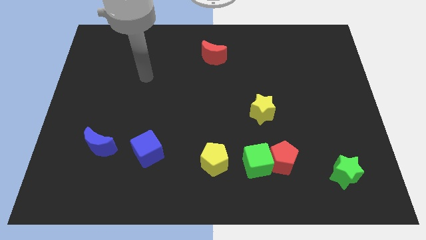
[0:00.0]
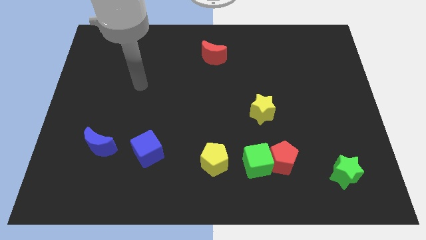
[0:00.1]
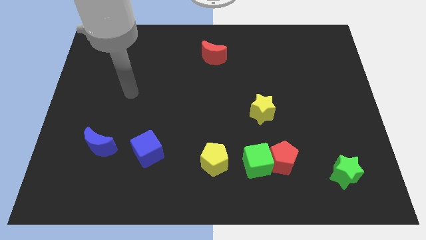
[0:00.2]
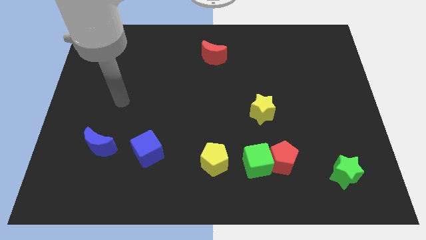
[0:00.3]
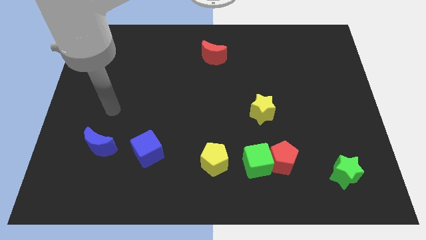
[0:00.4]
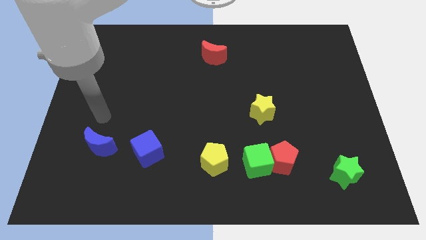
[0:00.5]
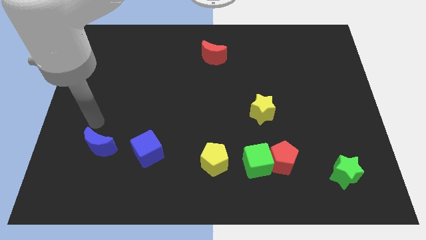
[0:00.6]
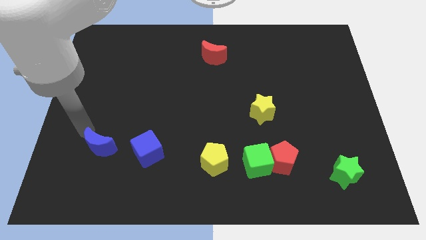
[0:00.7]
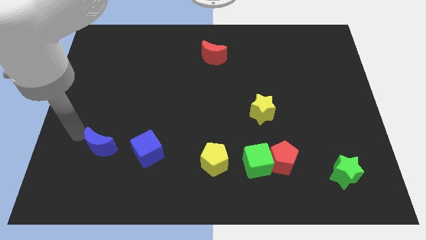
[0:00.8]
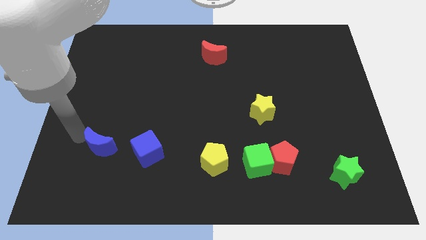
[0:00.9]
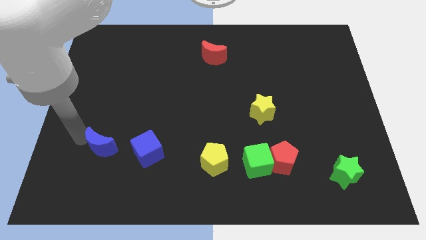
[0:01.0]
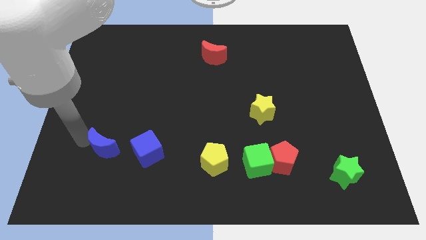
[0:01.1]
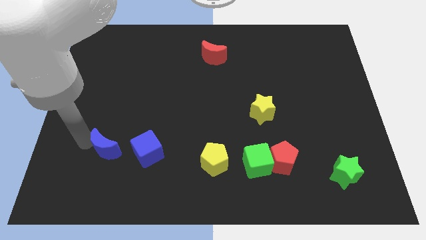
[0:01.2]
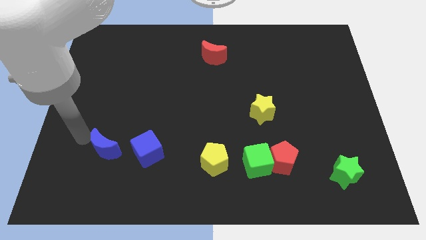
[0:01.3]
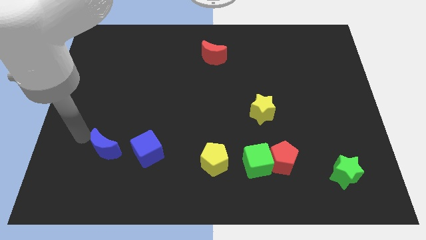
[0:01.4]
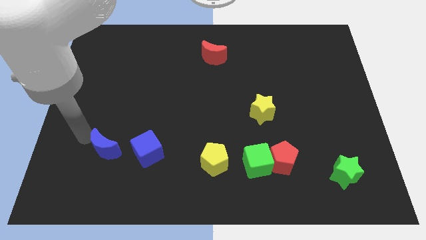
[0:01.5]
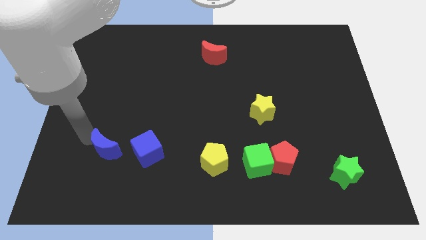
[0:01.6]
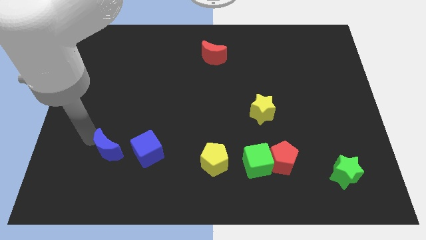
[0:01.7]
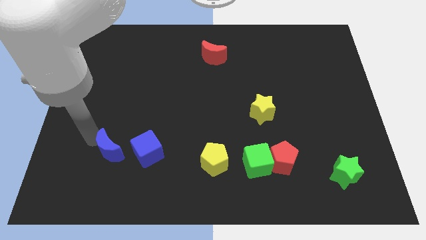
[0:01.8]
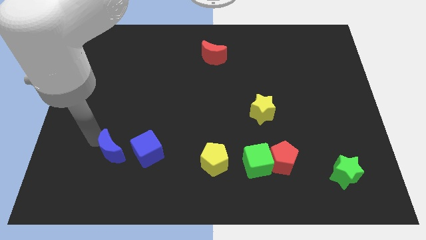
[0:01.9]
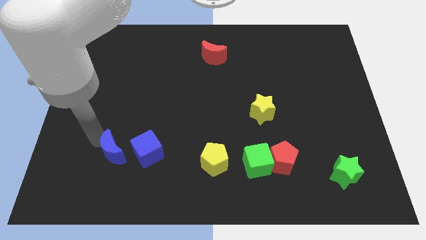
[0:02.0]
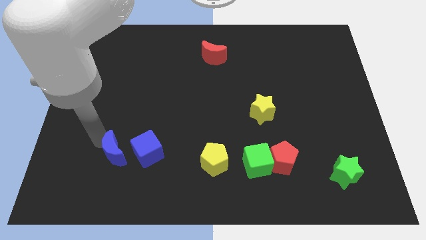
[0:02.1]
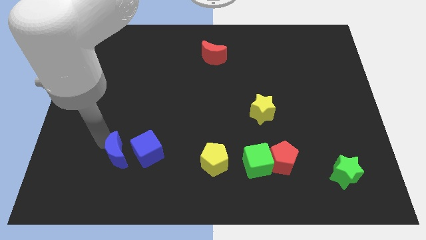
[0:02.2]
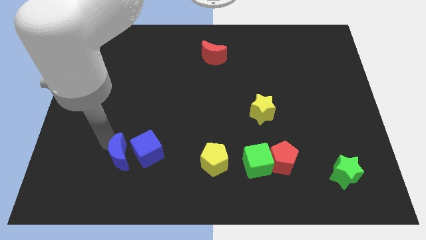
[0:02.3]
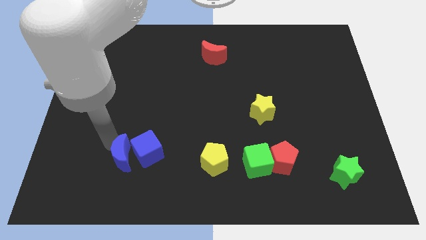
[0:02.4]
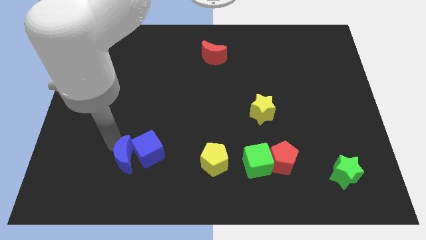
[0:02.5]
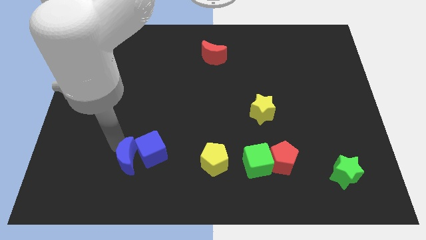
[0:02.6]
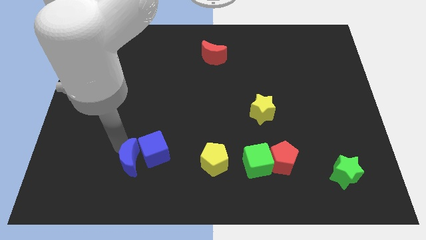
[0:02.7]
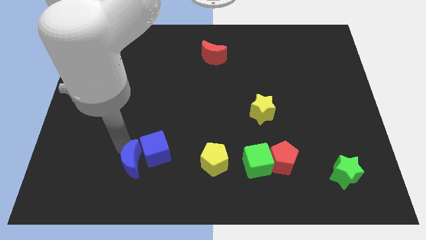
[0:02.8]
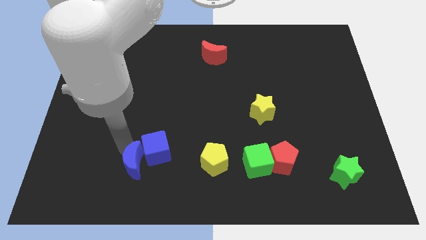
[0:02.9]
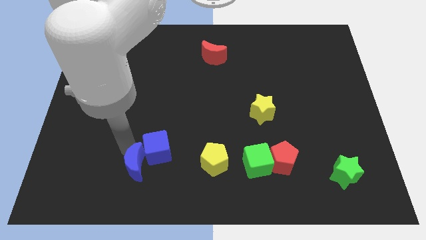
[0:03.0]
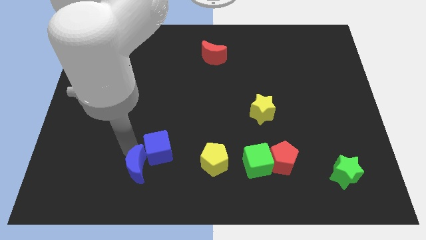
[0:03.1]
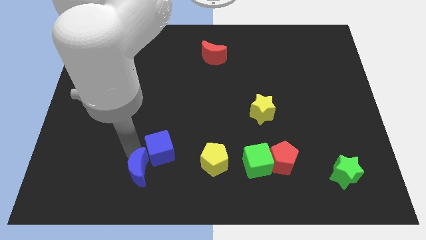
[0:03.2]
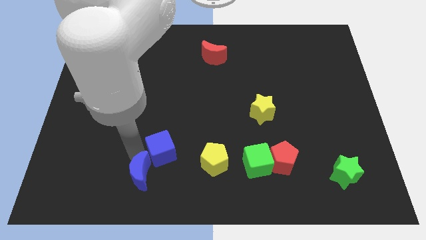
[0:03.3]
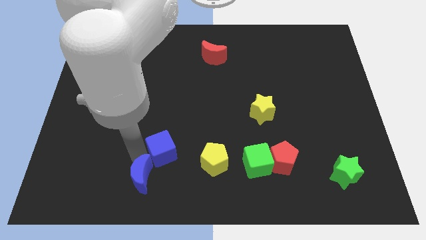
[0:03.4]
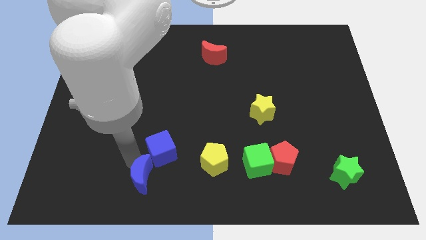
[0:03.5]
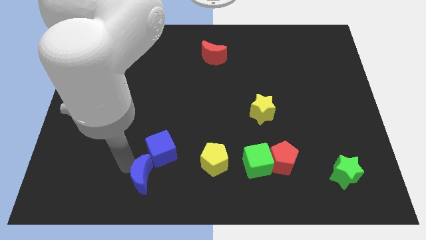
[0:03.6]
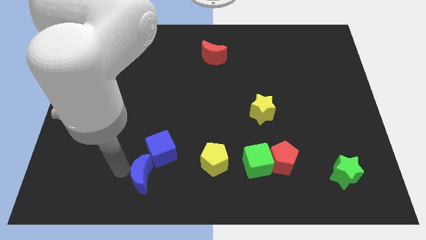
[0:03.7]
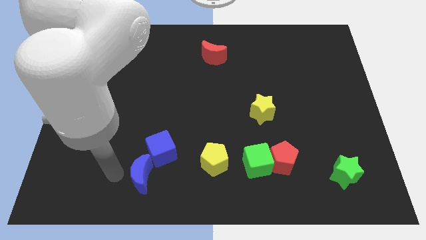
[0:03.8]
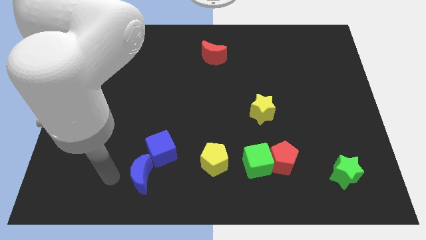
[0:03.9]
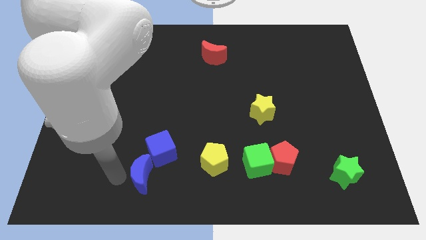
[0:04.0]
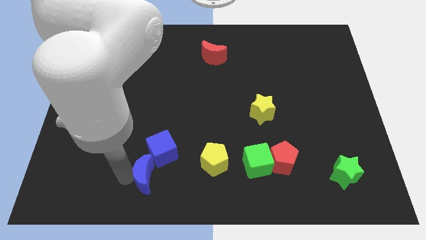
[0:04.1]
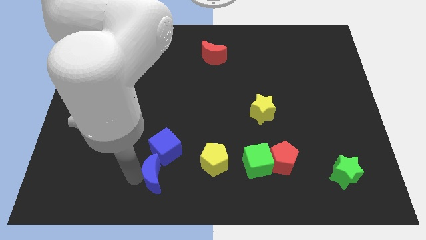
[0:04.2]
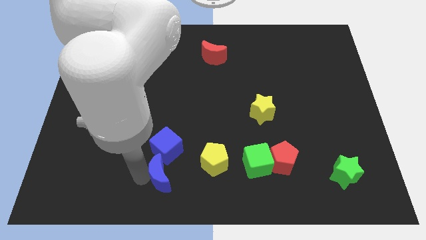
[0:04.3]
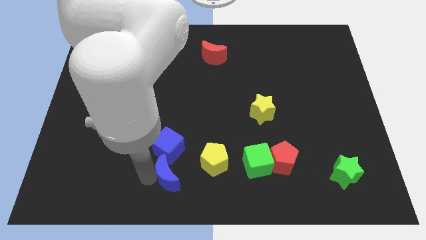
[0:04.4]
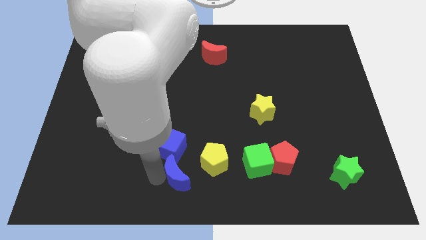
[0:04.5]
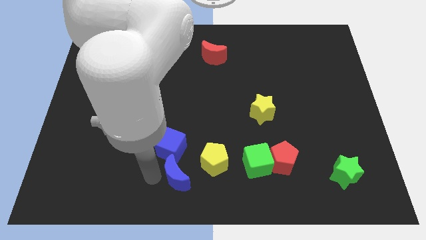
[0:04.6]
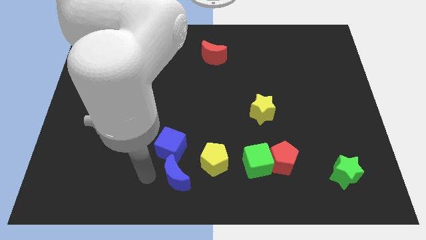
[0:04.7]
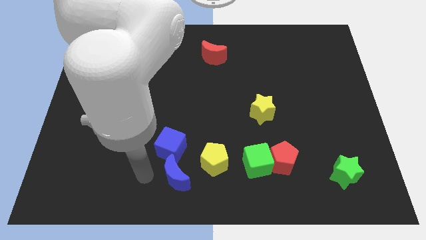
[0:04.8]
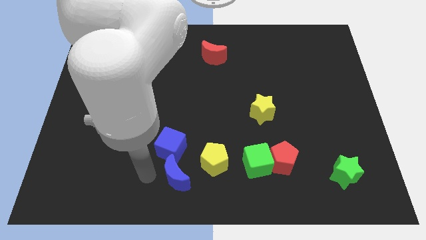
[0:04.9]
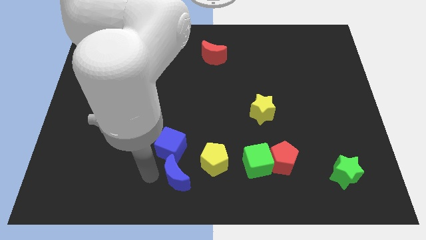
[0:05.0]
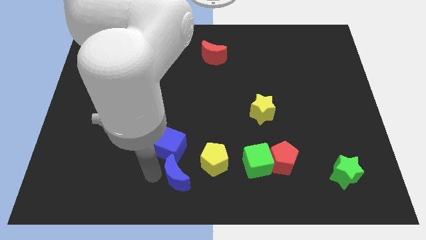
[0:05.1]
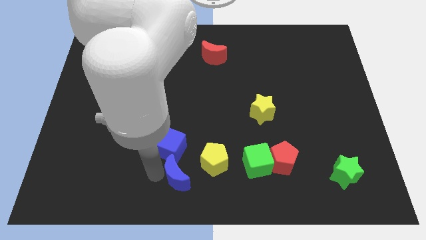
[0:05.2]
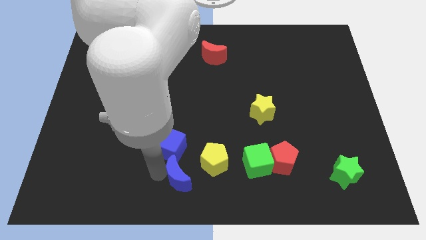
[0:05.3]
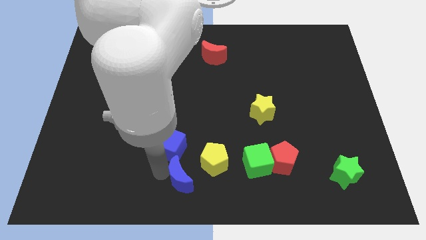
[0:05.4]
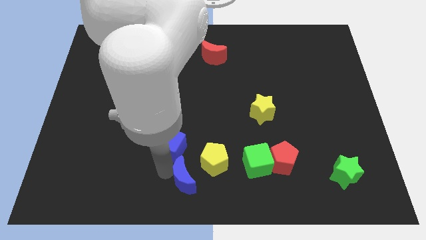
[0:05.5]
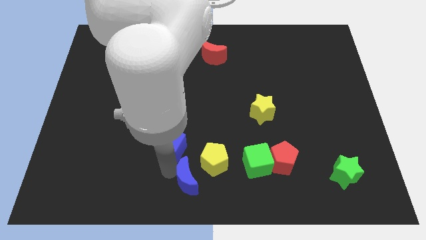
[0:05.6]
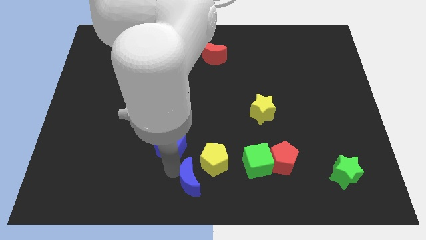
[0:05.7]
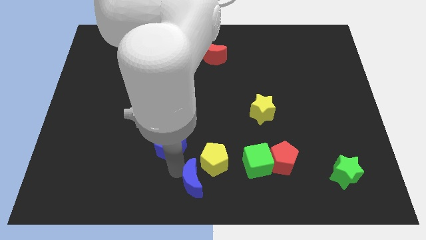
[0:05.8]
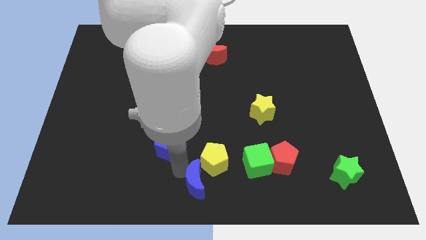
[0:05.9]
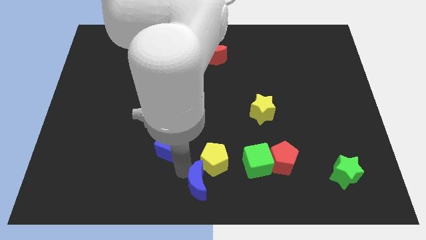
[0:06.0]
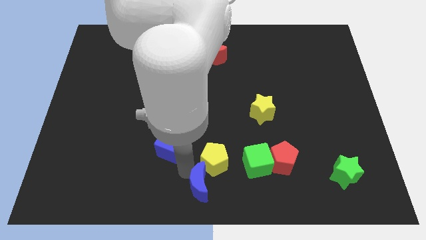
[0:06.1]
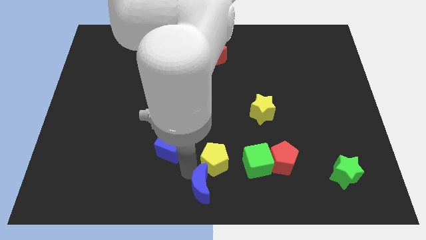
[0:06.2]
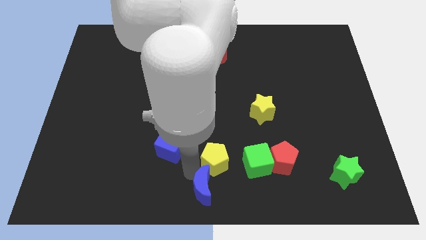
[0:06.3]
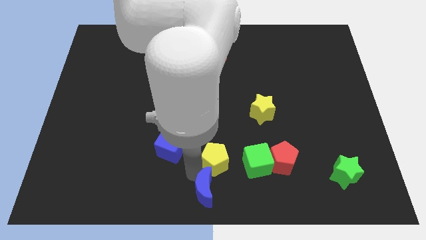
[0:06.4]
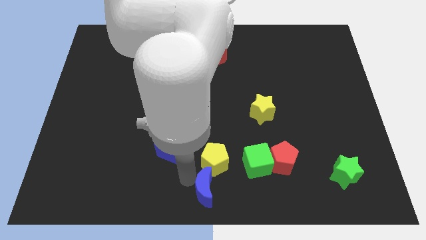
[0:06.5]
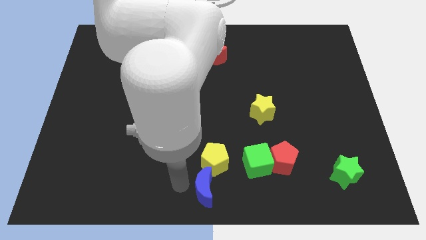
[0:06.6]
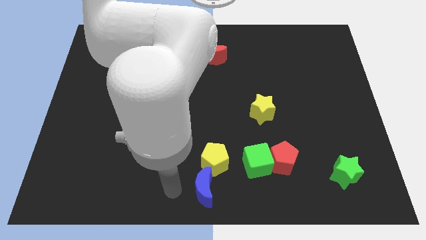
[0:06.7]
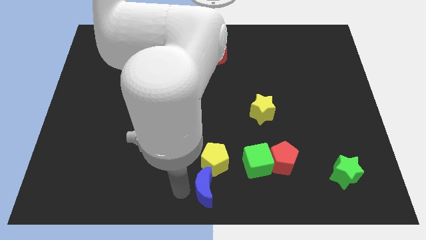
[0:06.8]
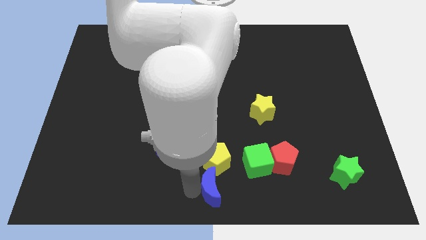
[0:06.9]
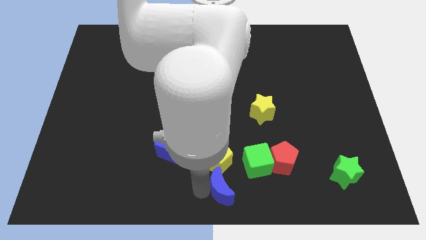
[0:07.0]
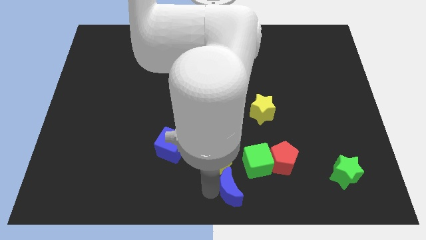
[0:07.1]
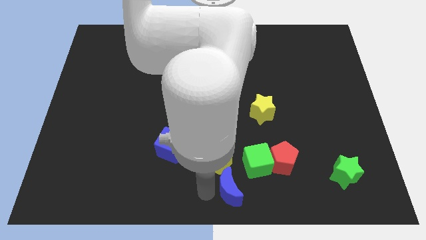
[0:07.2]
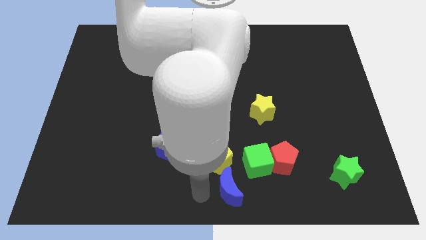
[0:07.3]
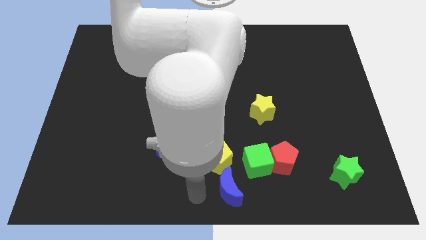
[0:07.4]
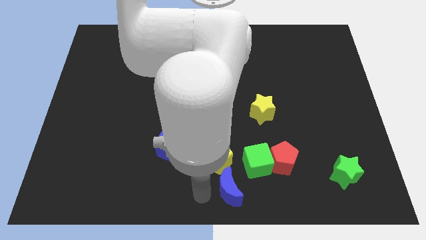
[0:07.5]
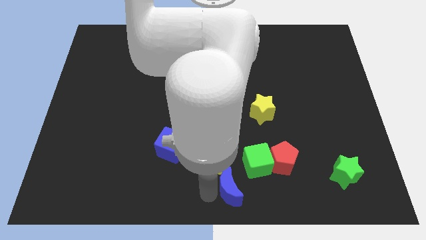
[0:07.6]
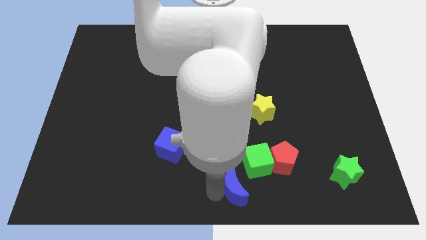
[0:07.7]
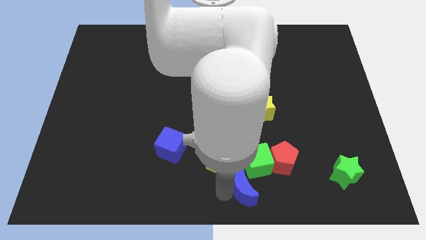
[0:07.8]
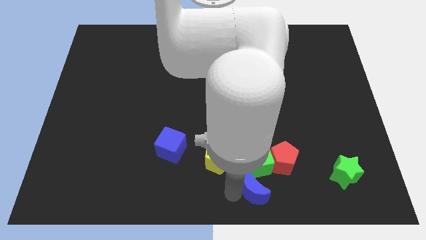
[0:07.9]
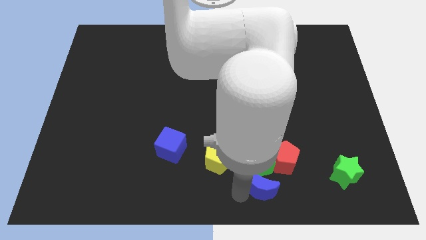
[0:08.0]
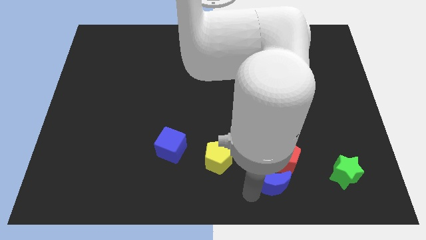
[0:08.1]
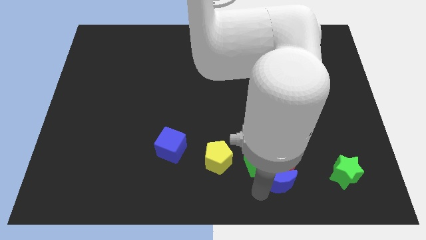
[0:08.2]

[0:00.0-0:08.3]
slide the blue moon to the red pentagon
